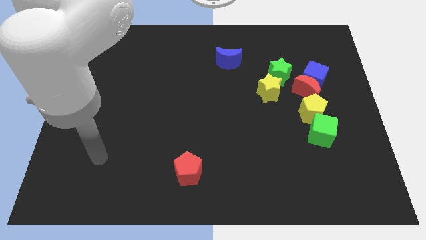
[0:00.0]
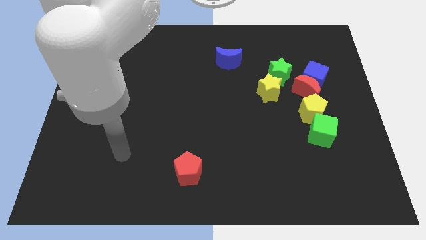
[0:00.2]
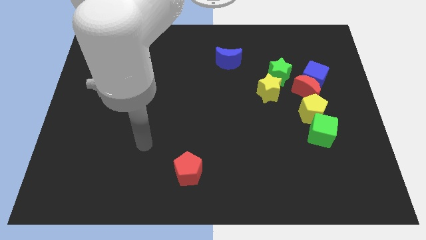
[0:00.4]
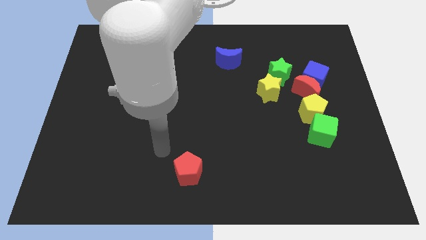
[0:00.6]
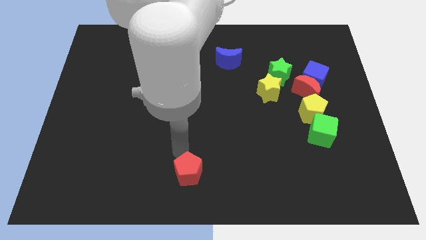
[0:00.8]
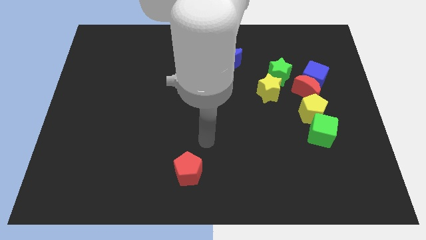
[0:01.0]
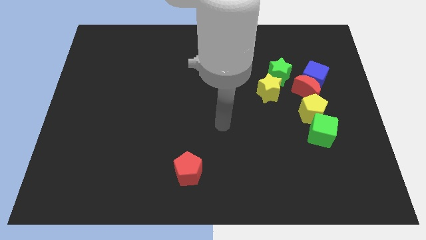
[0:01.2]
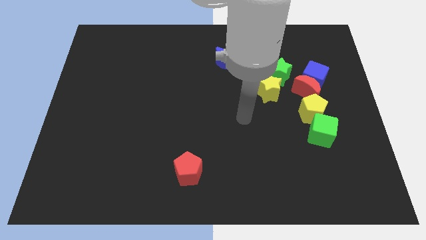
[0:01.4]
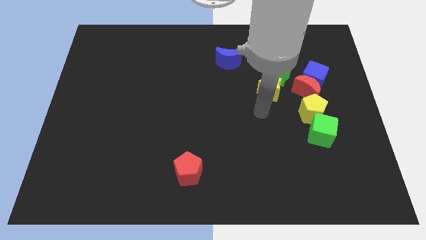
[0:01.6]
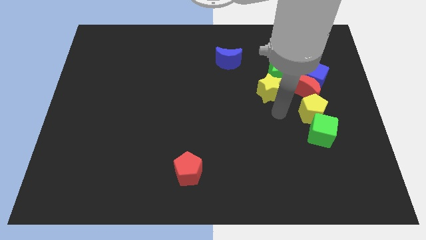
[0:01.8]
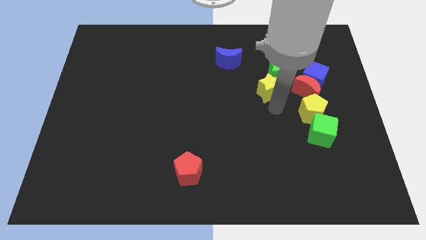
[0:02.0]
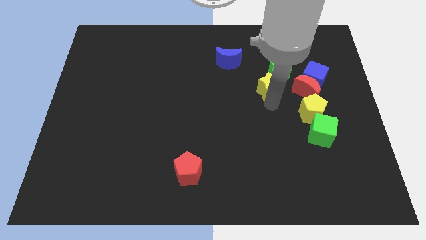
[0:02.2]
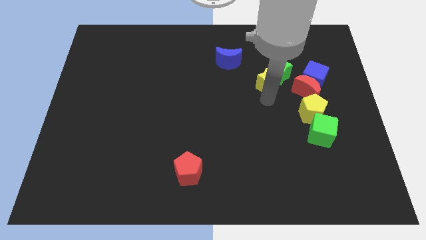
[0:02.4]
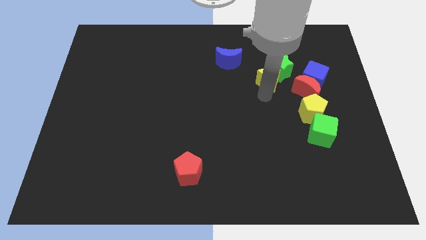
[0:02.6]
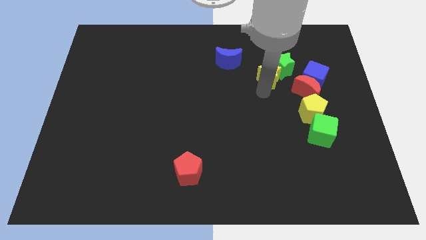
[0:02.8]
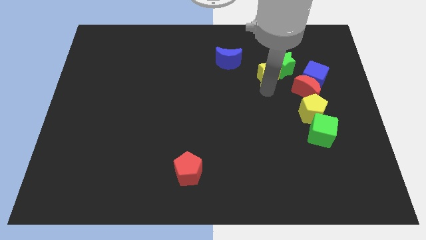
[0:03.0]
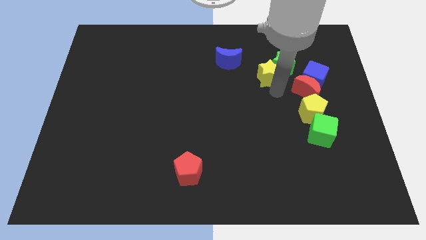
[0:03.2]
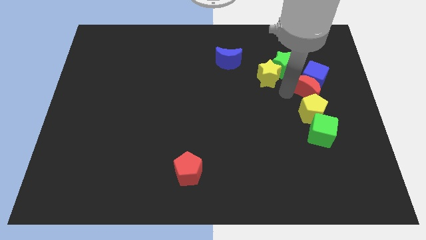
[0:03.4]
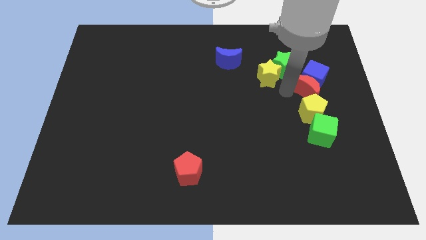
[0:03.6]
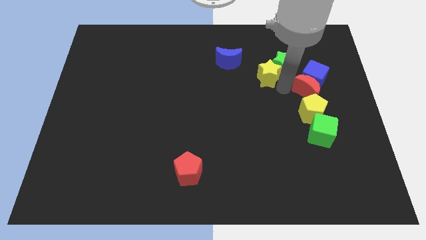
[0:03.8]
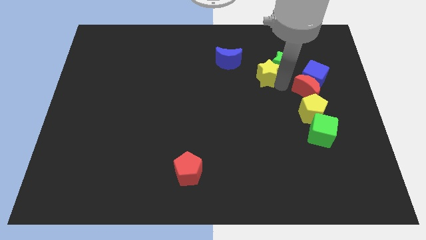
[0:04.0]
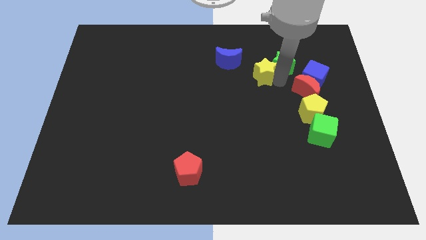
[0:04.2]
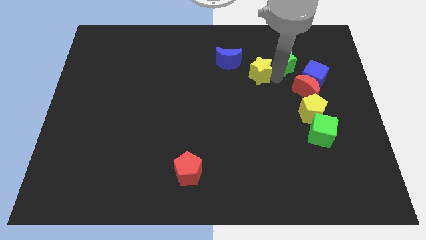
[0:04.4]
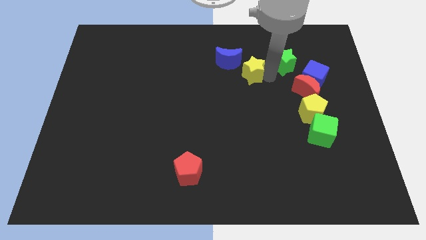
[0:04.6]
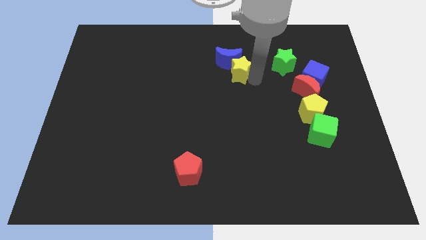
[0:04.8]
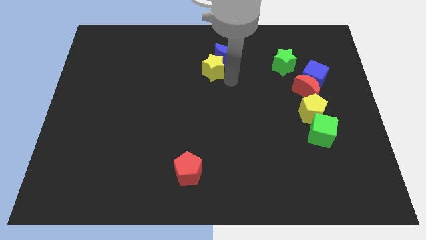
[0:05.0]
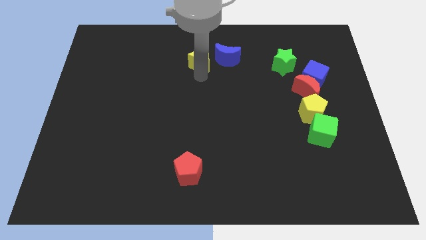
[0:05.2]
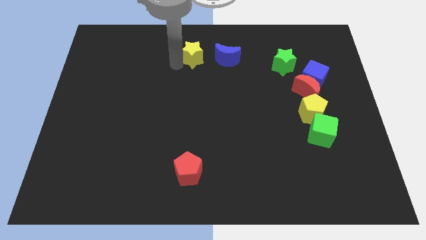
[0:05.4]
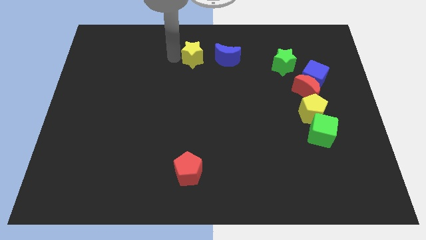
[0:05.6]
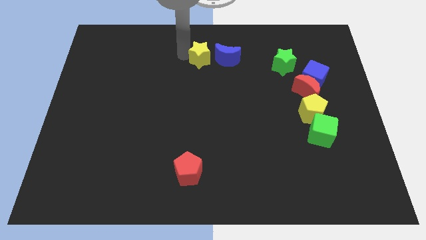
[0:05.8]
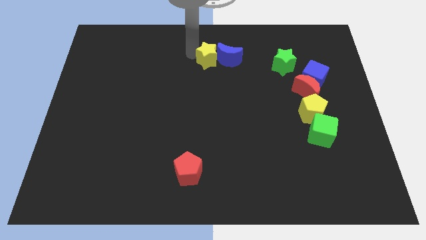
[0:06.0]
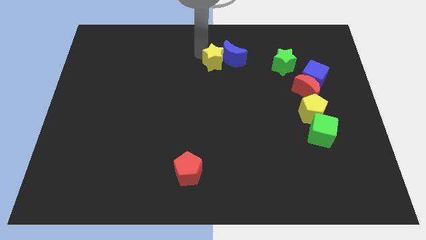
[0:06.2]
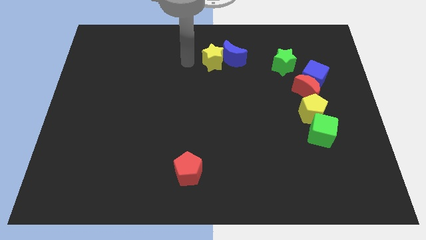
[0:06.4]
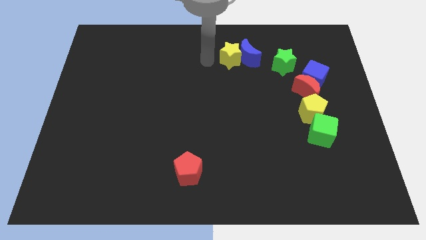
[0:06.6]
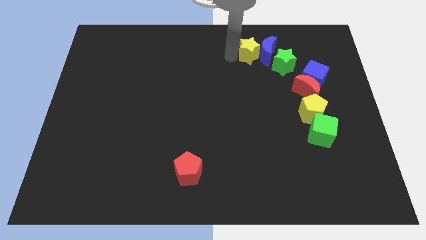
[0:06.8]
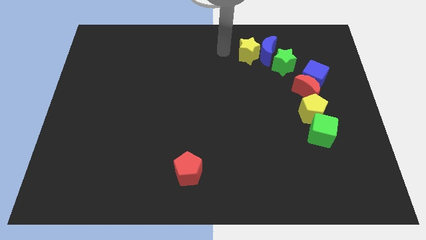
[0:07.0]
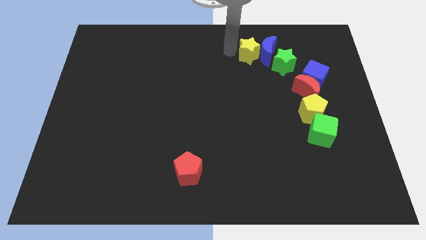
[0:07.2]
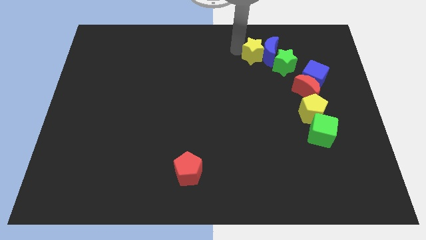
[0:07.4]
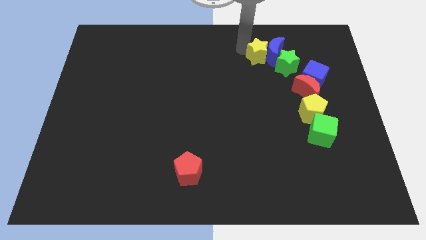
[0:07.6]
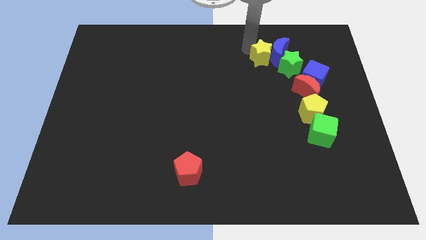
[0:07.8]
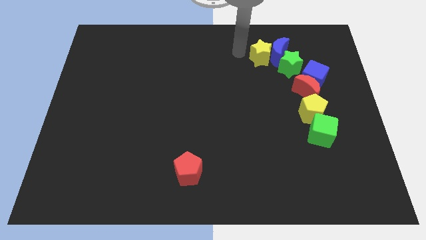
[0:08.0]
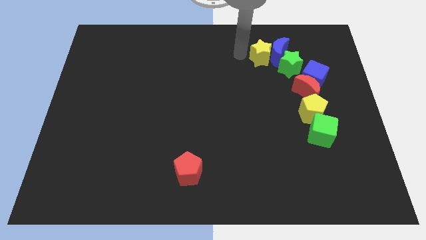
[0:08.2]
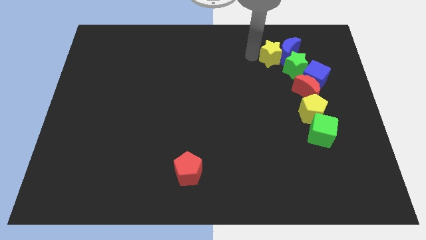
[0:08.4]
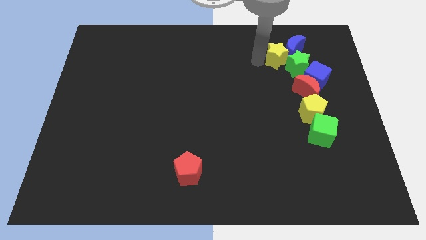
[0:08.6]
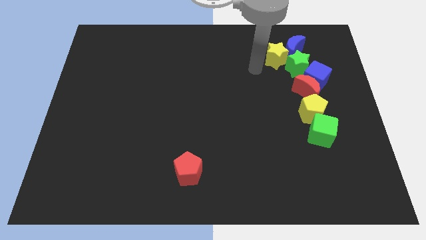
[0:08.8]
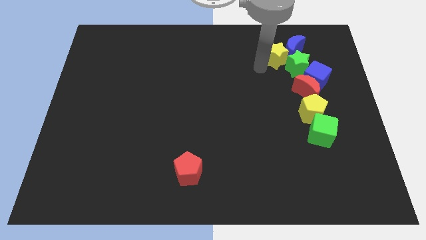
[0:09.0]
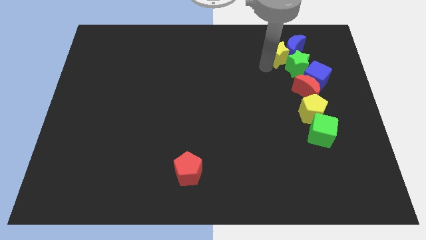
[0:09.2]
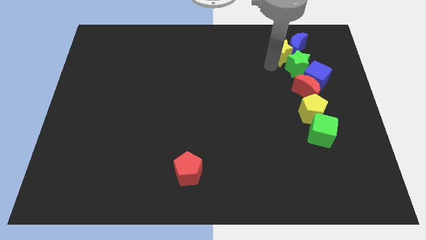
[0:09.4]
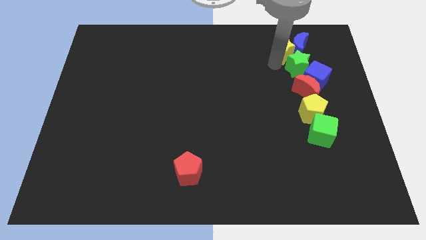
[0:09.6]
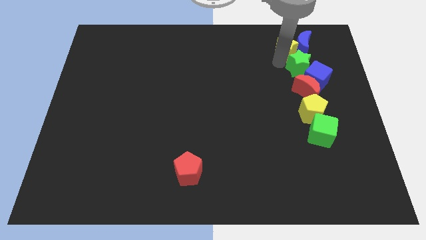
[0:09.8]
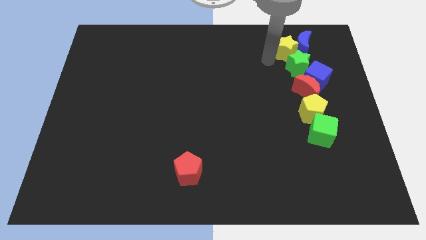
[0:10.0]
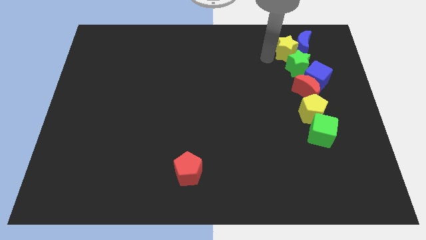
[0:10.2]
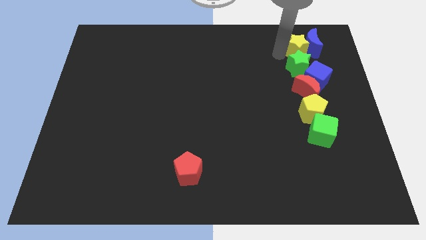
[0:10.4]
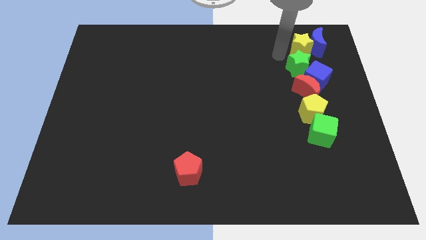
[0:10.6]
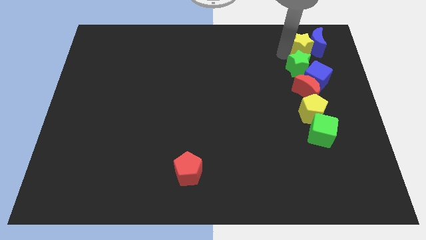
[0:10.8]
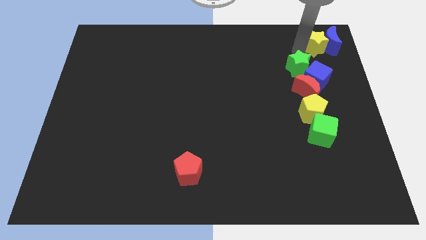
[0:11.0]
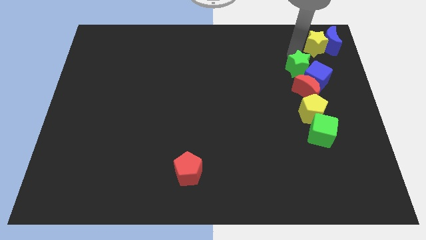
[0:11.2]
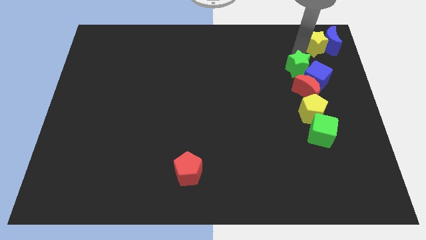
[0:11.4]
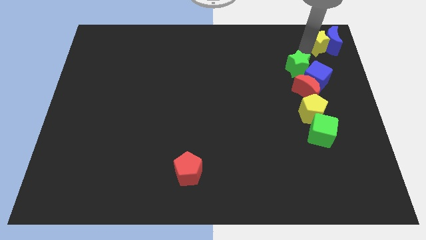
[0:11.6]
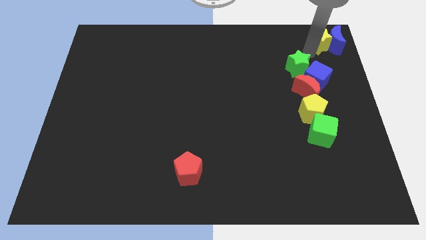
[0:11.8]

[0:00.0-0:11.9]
put the yellow star to the upper right corner
